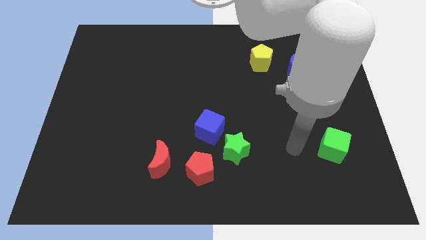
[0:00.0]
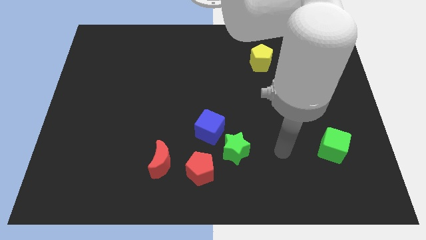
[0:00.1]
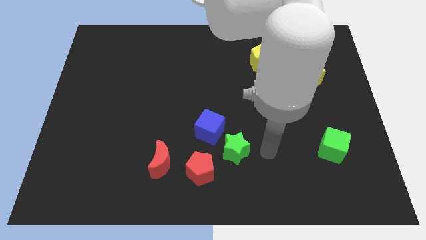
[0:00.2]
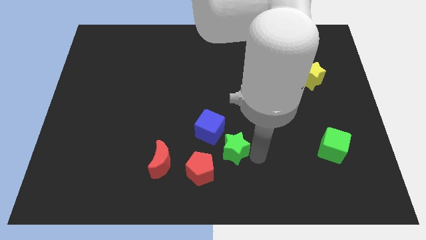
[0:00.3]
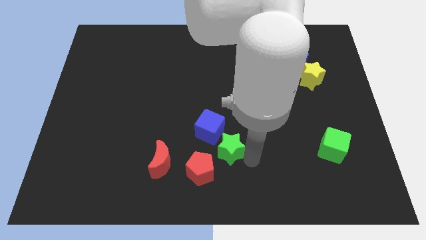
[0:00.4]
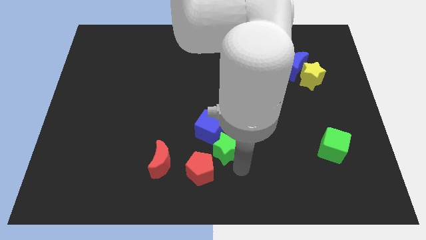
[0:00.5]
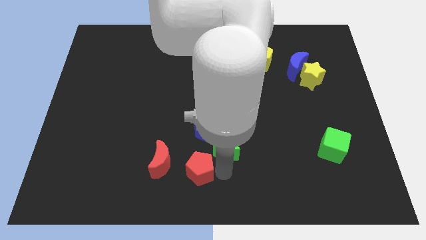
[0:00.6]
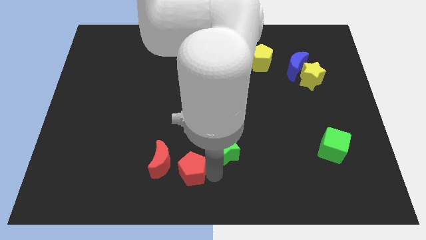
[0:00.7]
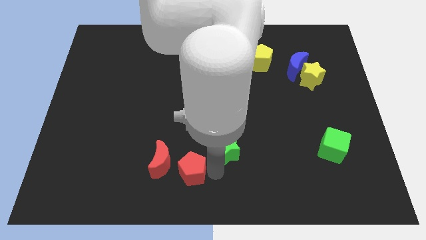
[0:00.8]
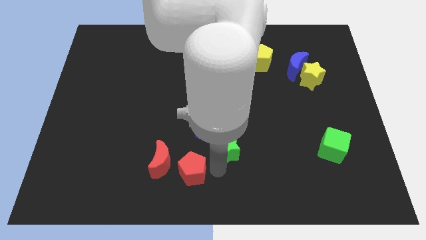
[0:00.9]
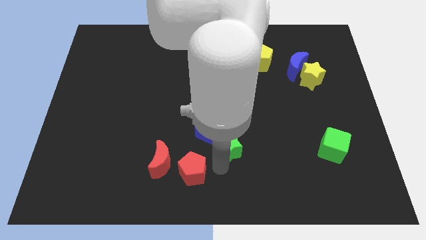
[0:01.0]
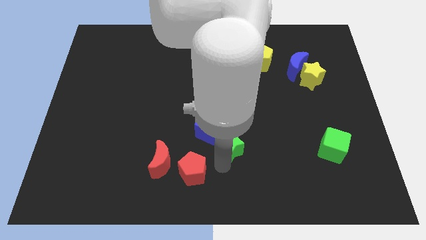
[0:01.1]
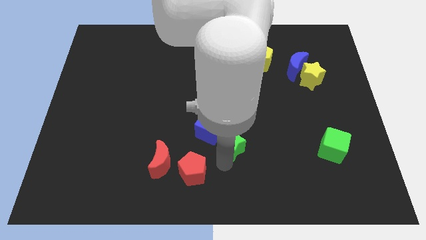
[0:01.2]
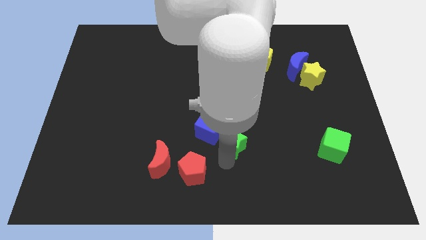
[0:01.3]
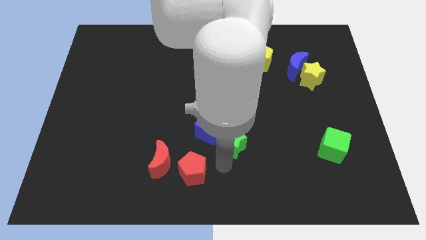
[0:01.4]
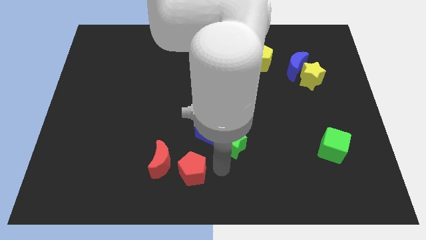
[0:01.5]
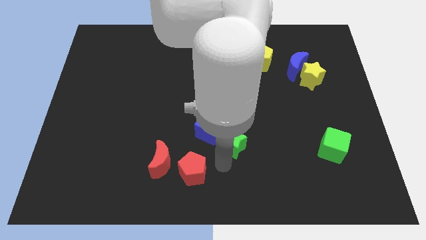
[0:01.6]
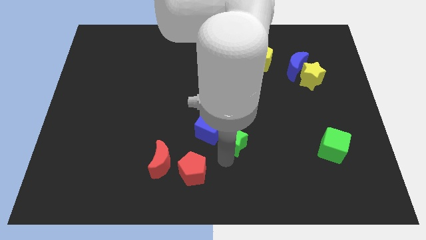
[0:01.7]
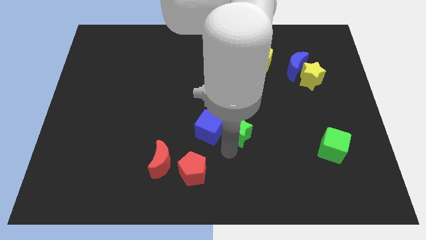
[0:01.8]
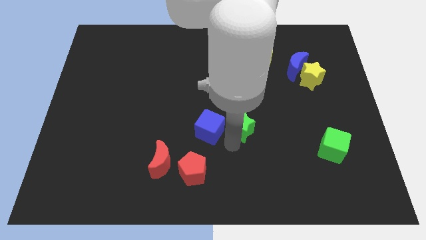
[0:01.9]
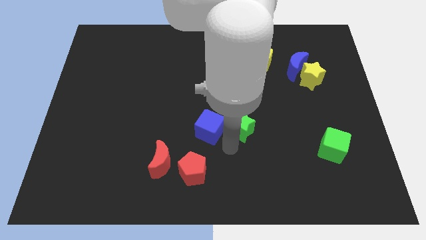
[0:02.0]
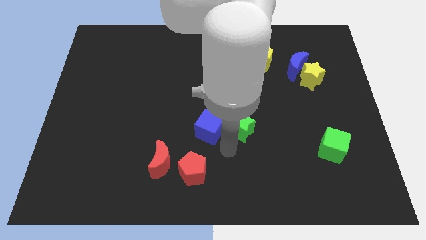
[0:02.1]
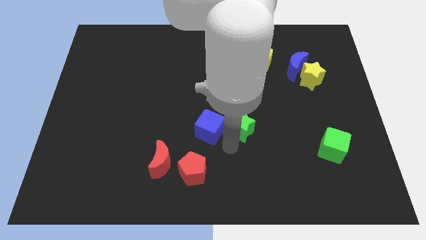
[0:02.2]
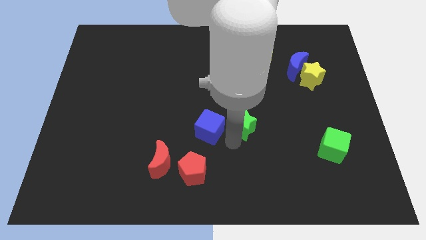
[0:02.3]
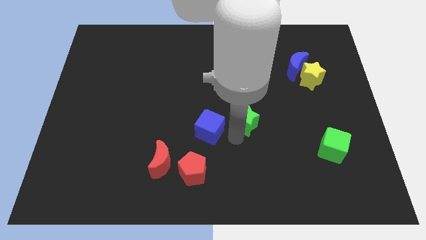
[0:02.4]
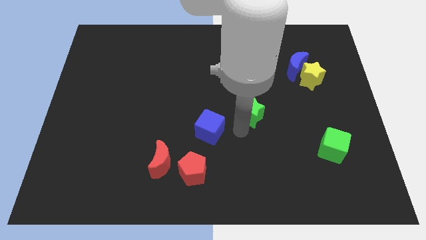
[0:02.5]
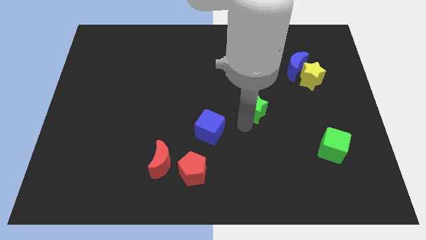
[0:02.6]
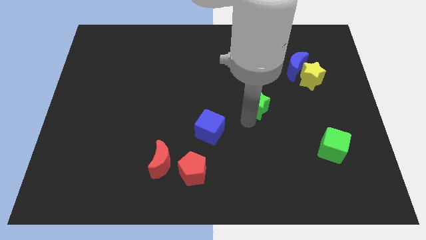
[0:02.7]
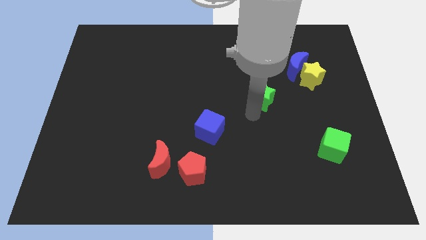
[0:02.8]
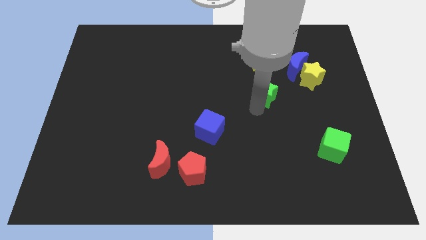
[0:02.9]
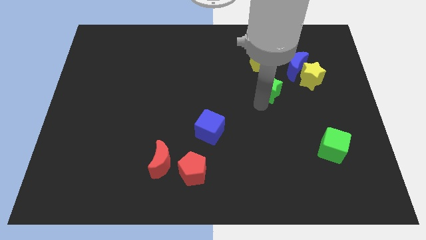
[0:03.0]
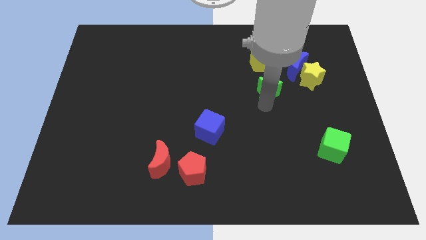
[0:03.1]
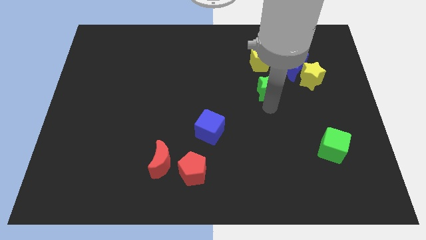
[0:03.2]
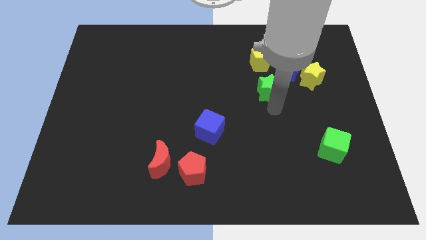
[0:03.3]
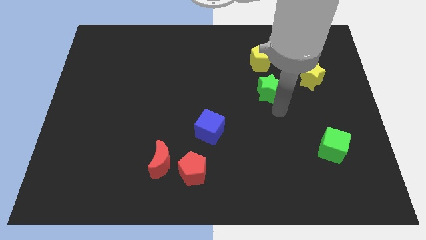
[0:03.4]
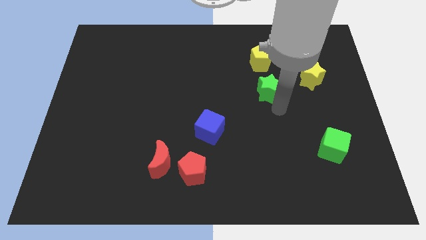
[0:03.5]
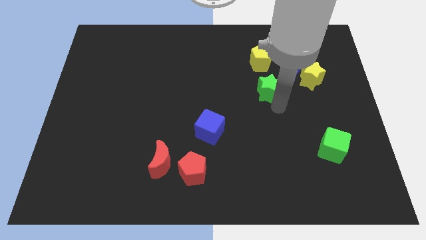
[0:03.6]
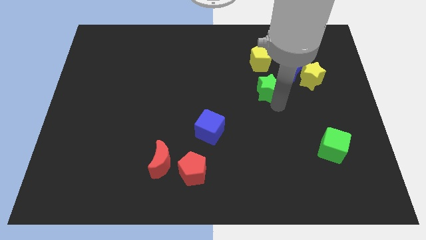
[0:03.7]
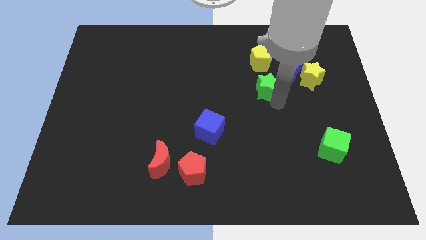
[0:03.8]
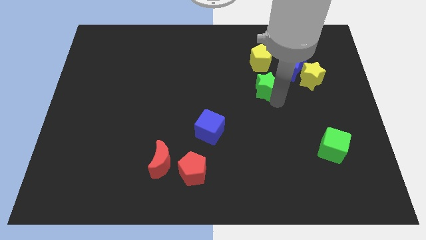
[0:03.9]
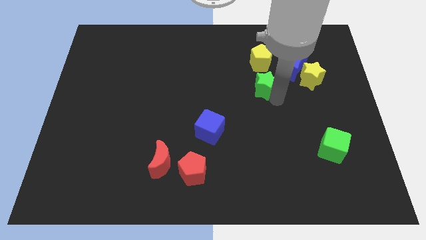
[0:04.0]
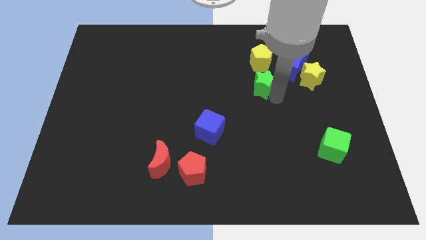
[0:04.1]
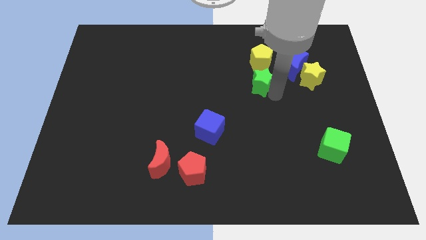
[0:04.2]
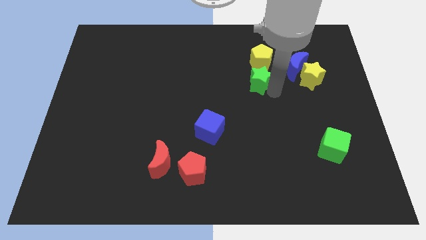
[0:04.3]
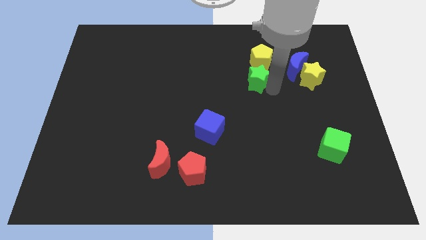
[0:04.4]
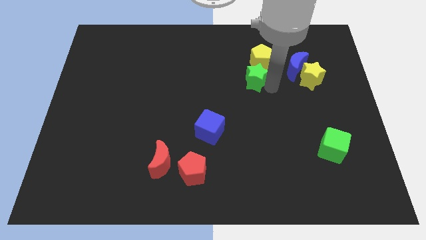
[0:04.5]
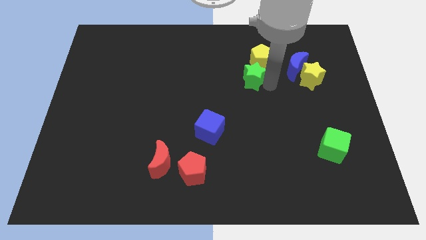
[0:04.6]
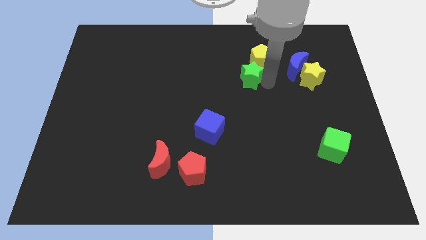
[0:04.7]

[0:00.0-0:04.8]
slide the green star next to the yellow pentagon

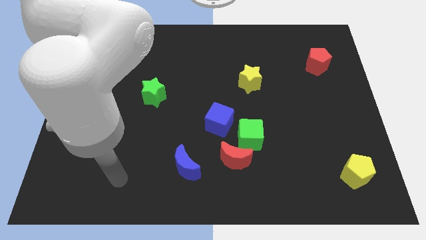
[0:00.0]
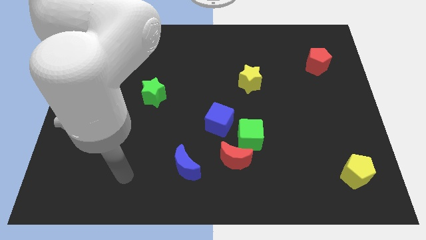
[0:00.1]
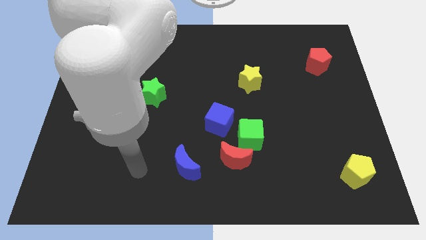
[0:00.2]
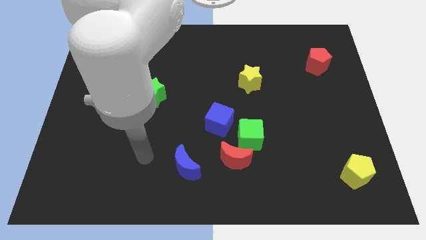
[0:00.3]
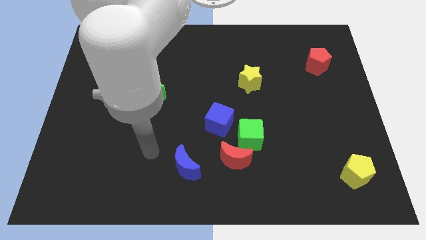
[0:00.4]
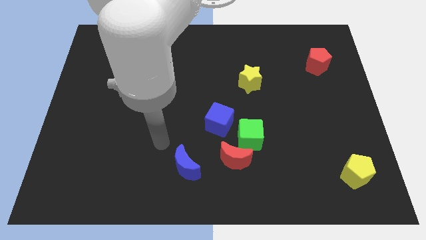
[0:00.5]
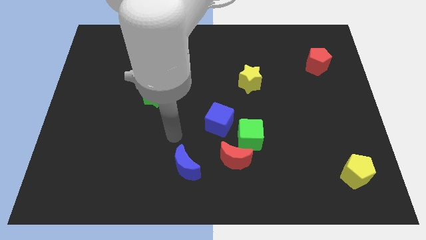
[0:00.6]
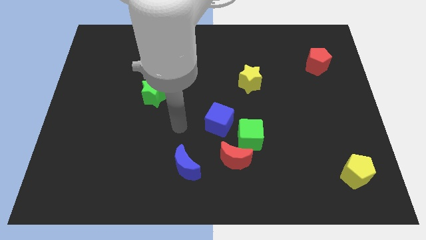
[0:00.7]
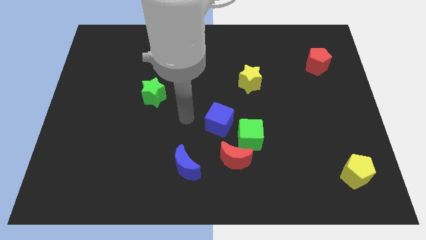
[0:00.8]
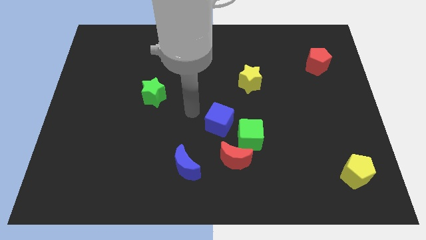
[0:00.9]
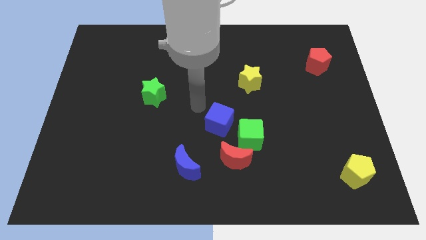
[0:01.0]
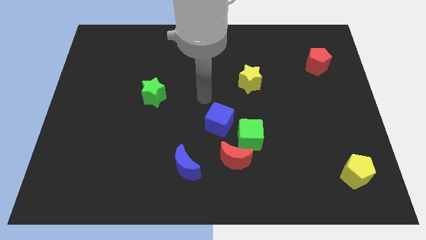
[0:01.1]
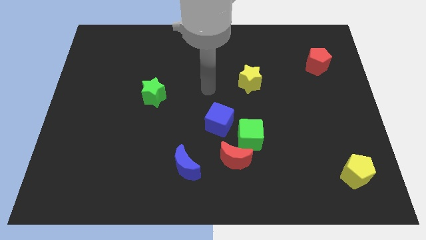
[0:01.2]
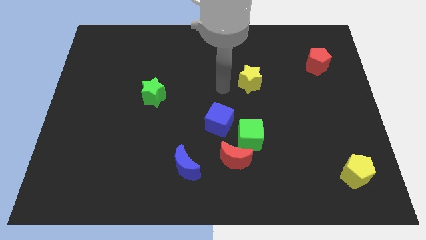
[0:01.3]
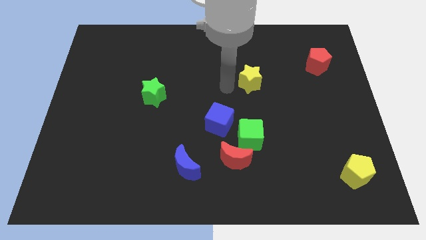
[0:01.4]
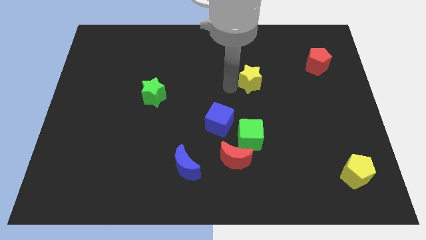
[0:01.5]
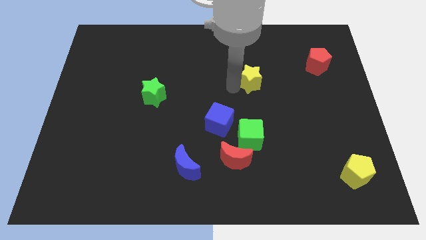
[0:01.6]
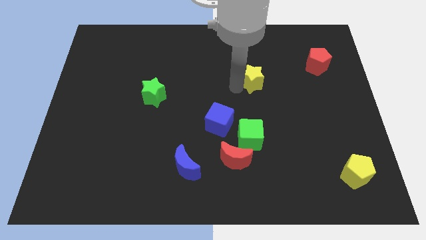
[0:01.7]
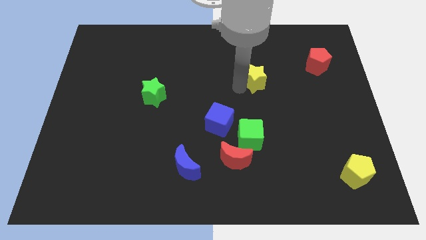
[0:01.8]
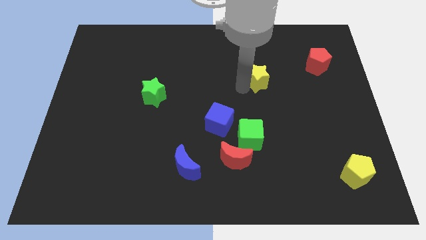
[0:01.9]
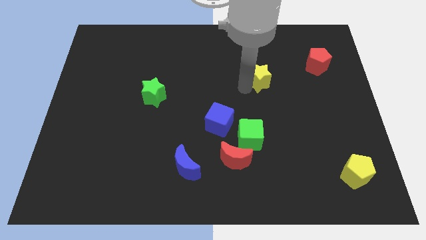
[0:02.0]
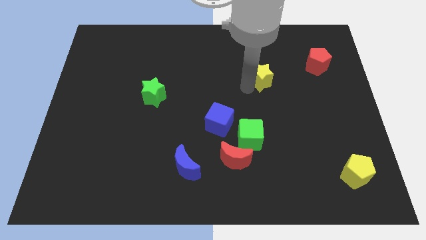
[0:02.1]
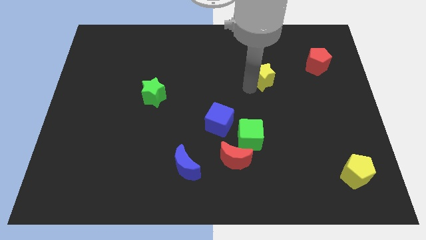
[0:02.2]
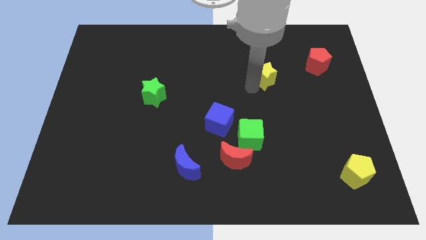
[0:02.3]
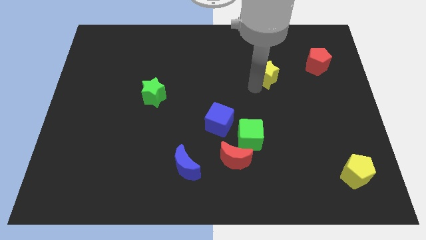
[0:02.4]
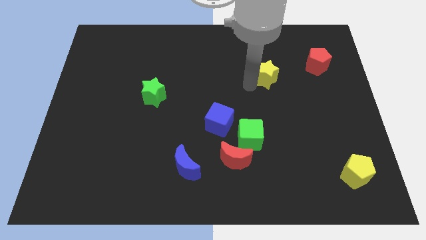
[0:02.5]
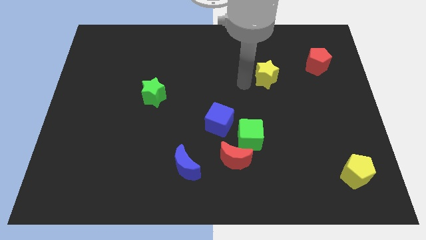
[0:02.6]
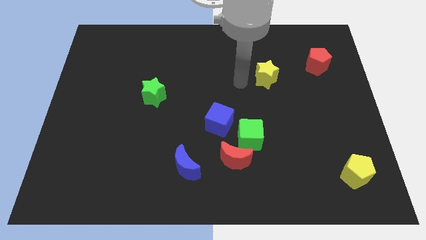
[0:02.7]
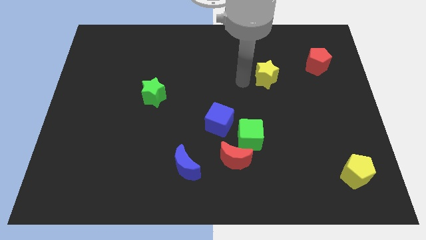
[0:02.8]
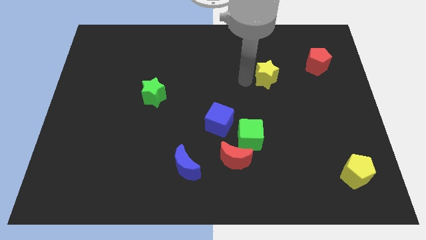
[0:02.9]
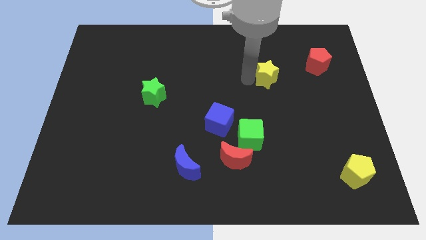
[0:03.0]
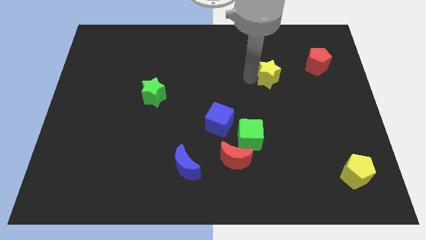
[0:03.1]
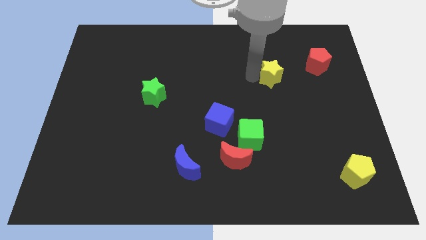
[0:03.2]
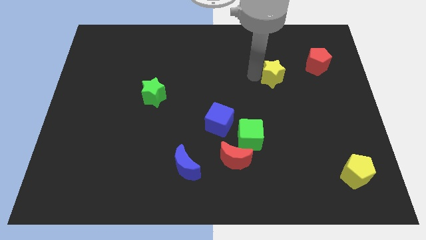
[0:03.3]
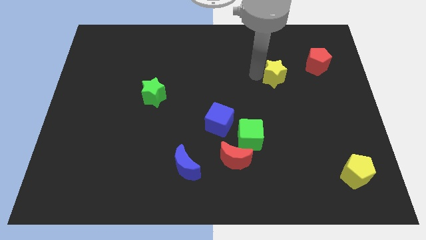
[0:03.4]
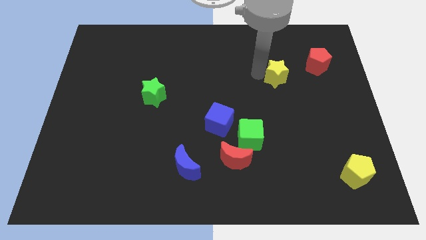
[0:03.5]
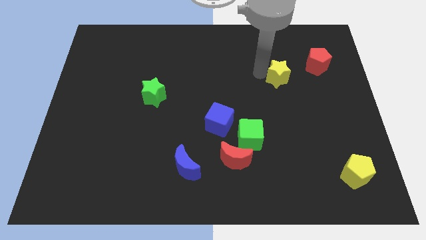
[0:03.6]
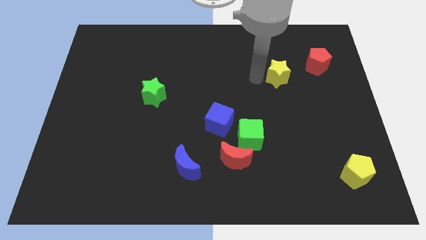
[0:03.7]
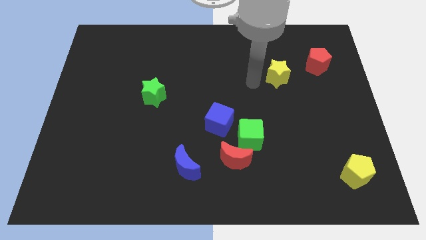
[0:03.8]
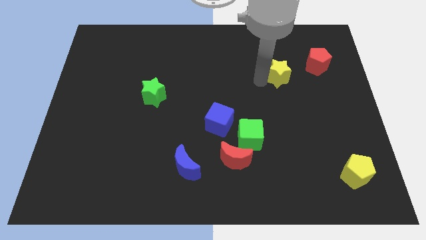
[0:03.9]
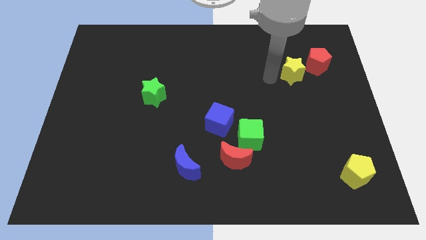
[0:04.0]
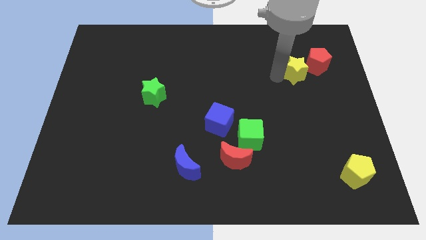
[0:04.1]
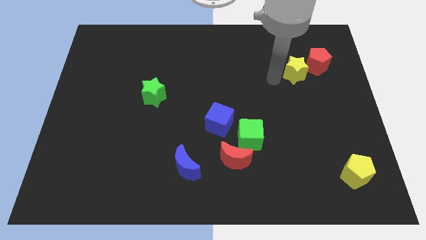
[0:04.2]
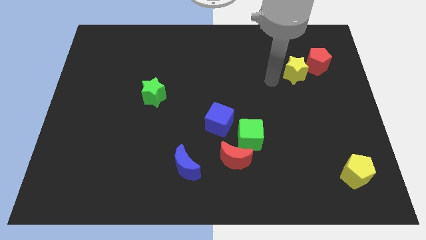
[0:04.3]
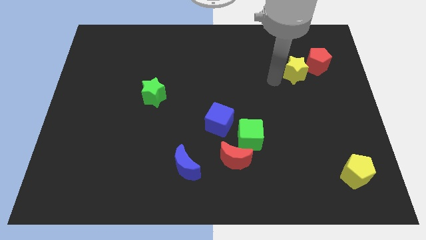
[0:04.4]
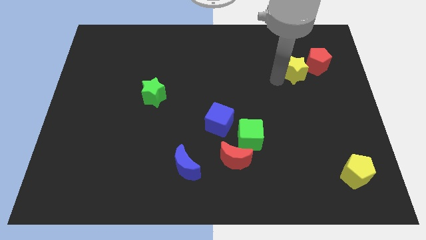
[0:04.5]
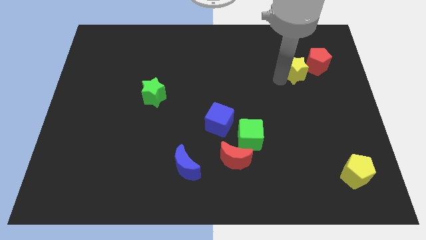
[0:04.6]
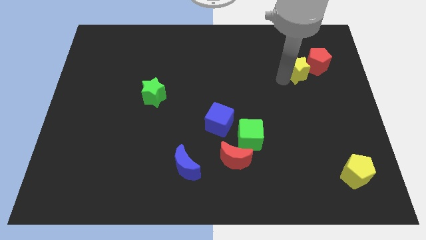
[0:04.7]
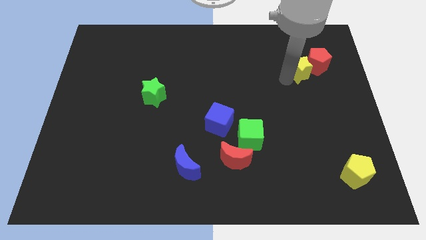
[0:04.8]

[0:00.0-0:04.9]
push the yellow star next to the red pentagon
